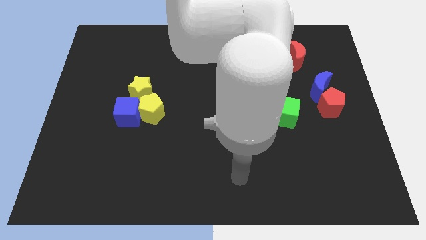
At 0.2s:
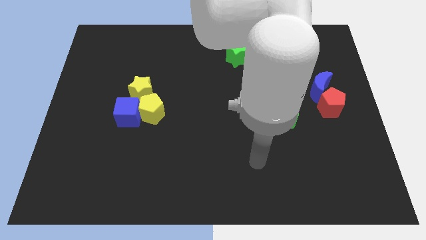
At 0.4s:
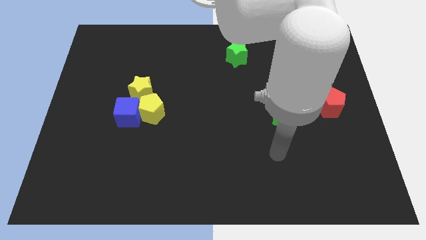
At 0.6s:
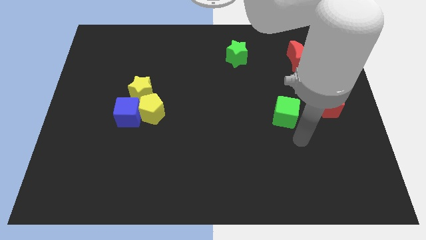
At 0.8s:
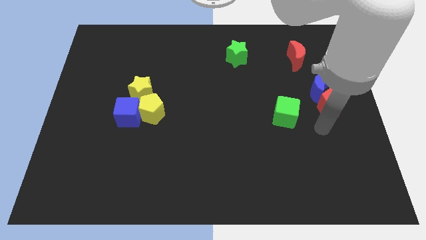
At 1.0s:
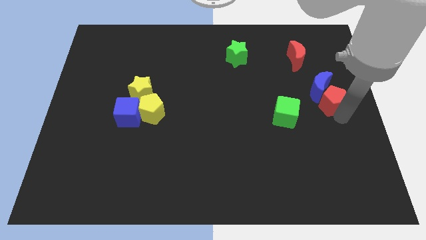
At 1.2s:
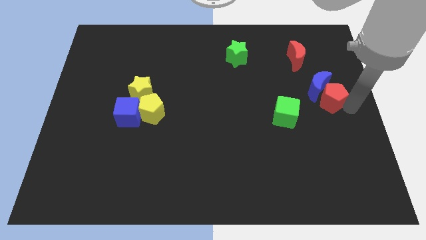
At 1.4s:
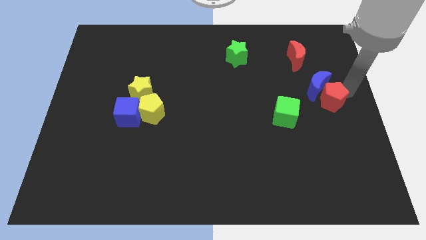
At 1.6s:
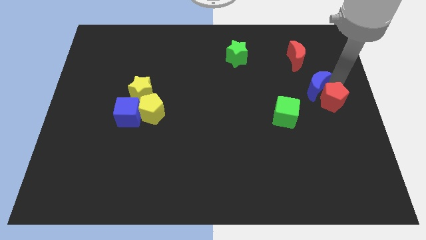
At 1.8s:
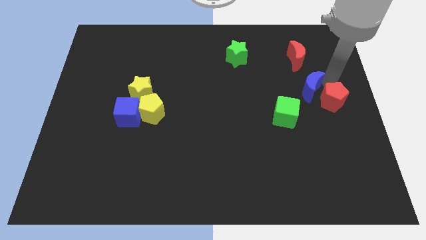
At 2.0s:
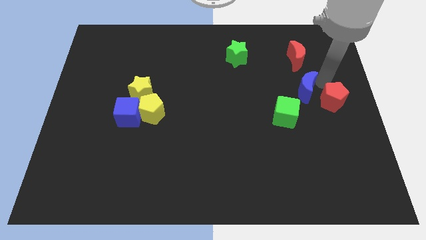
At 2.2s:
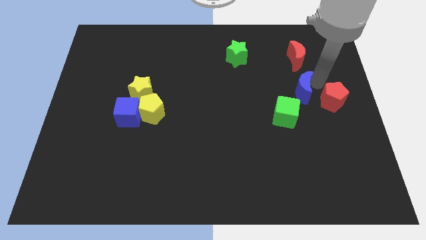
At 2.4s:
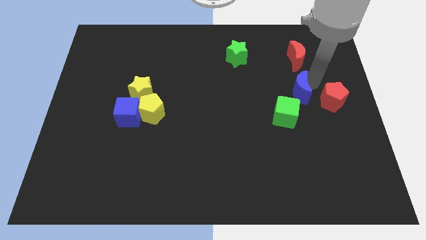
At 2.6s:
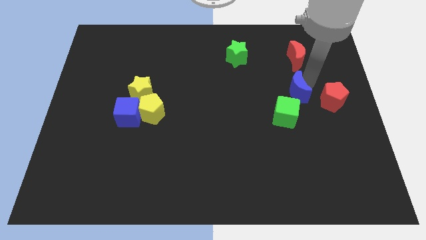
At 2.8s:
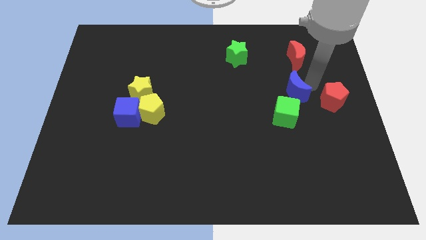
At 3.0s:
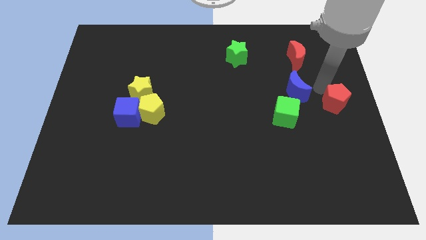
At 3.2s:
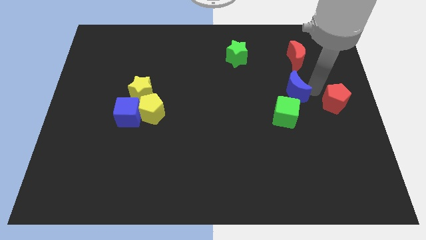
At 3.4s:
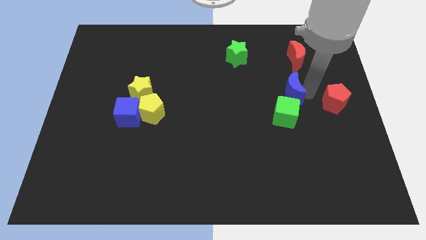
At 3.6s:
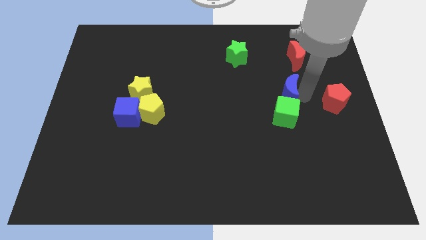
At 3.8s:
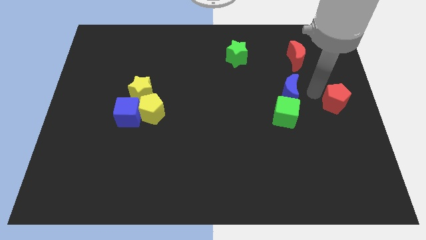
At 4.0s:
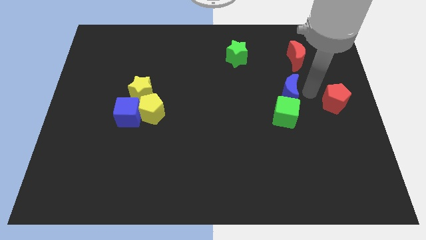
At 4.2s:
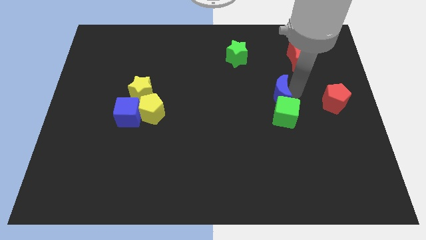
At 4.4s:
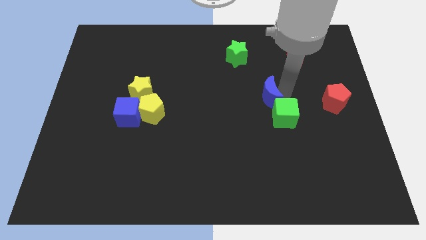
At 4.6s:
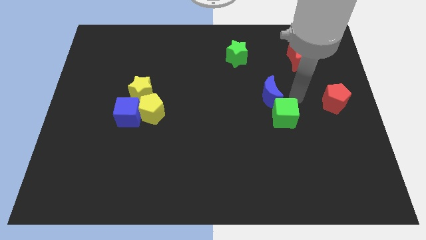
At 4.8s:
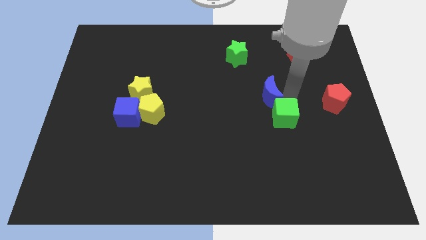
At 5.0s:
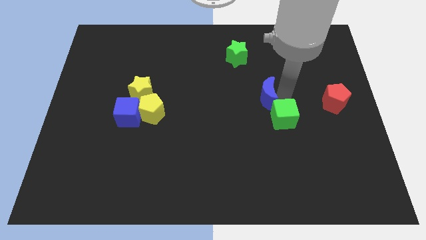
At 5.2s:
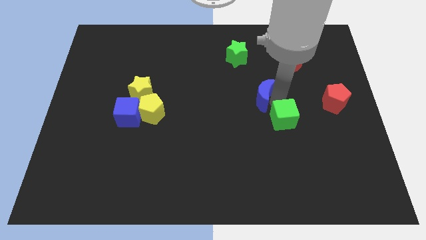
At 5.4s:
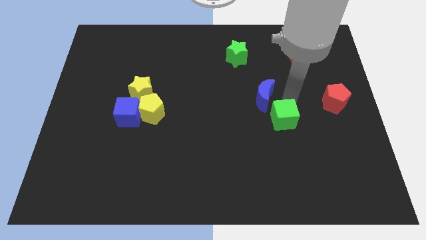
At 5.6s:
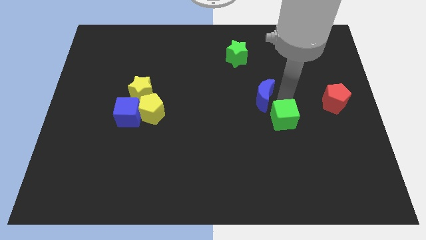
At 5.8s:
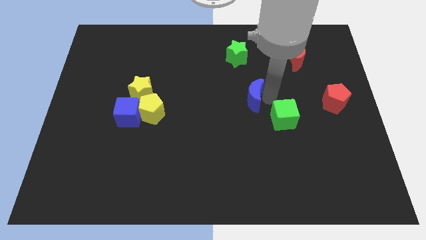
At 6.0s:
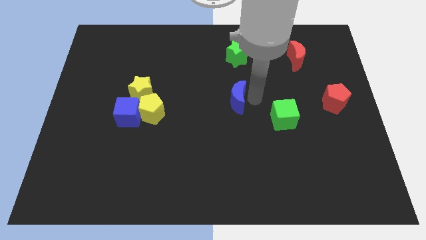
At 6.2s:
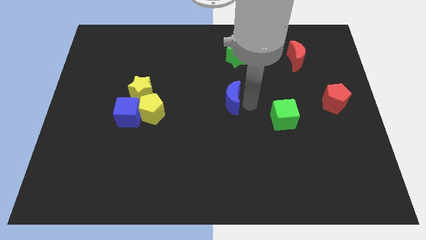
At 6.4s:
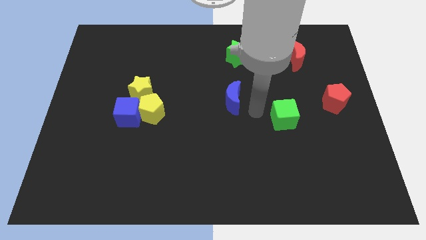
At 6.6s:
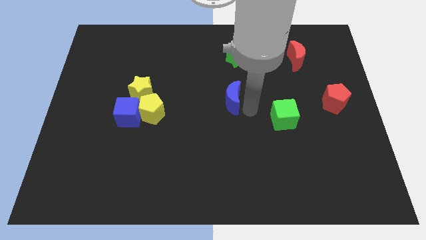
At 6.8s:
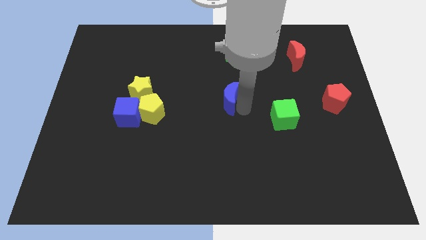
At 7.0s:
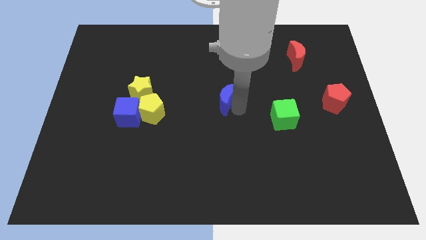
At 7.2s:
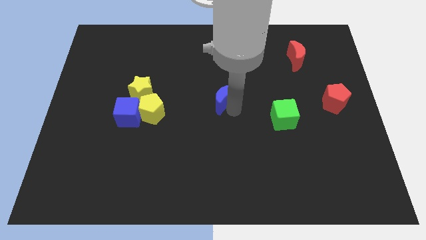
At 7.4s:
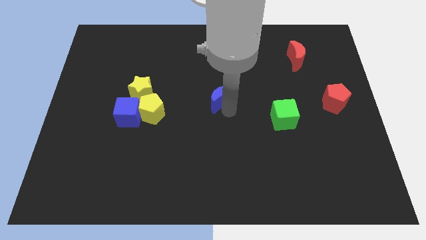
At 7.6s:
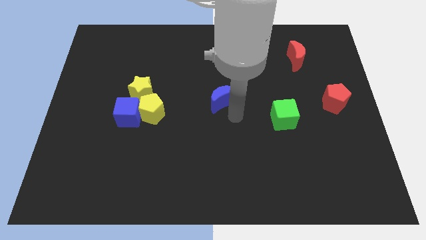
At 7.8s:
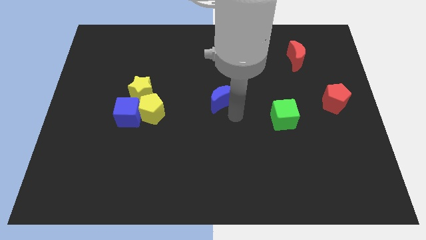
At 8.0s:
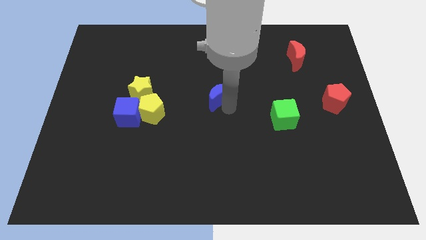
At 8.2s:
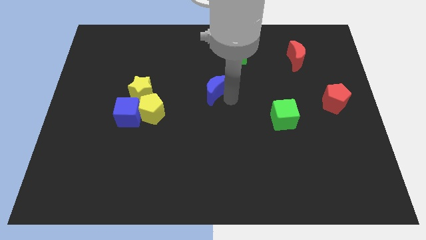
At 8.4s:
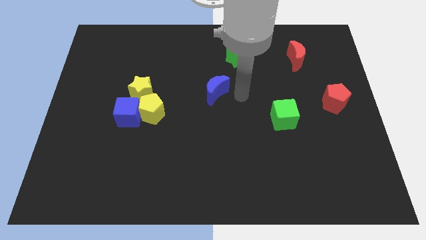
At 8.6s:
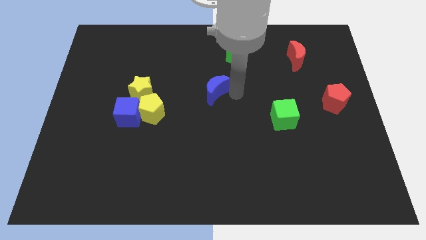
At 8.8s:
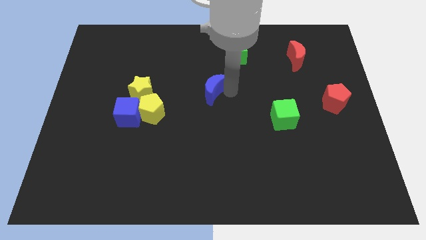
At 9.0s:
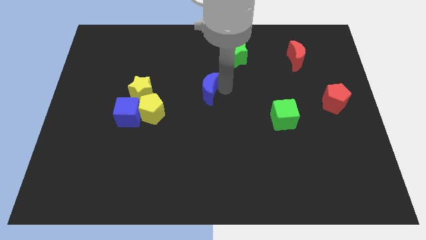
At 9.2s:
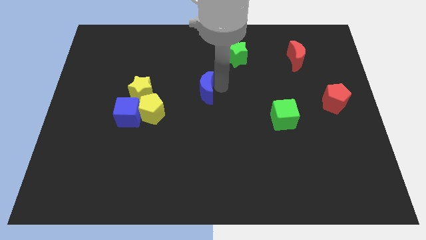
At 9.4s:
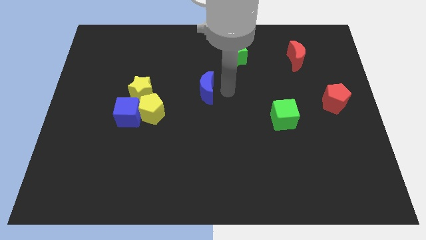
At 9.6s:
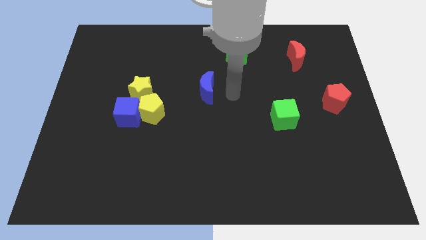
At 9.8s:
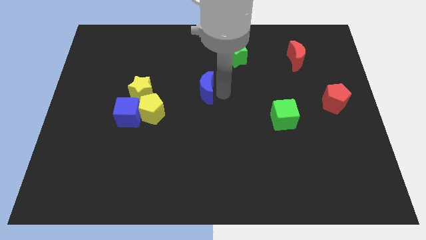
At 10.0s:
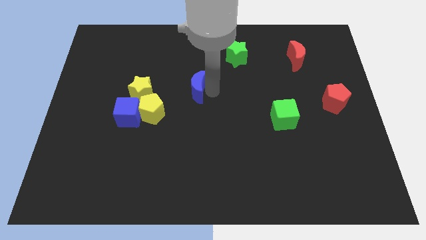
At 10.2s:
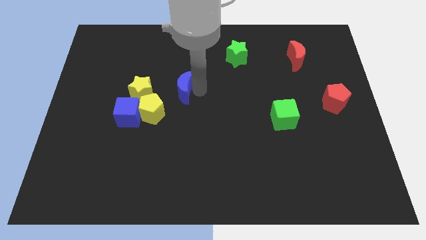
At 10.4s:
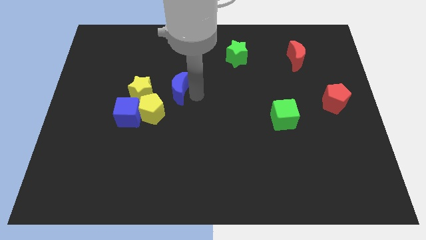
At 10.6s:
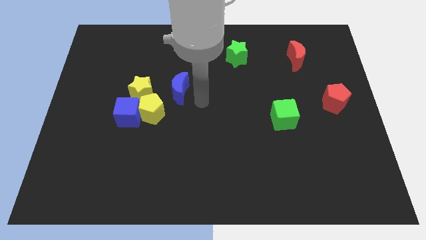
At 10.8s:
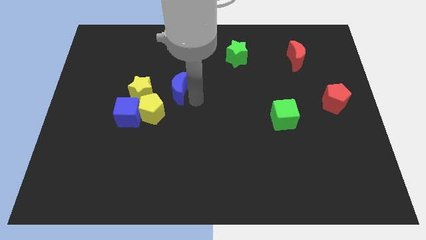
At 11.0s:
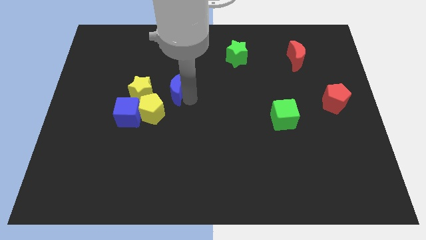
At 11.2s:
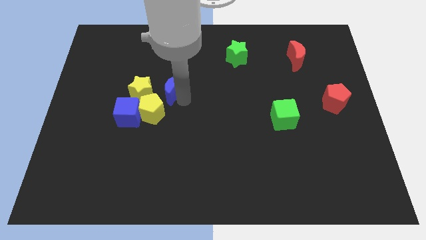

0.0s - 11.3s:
push the blue moon to the top of the yellow pentagon

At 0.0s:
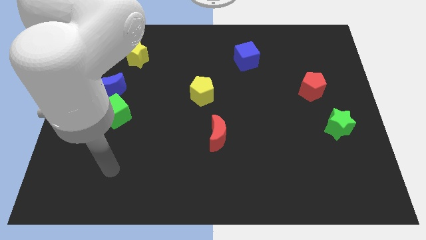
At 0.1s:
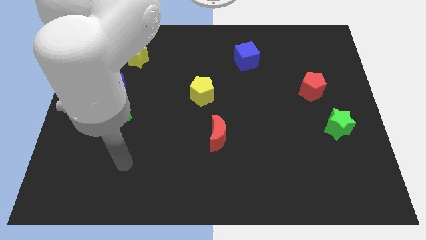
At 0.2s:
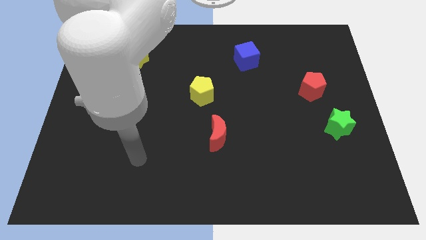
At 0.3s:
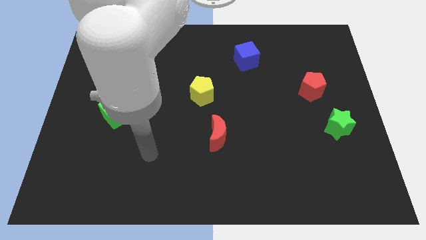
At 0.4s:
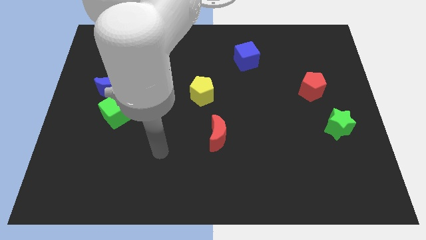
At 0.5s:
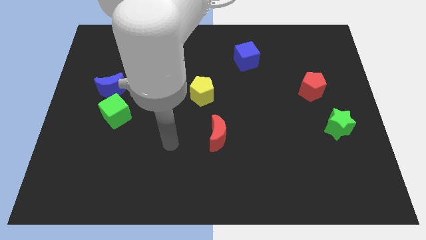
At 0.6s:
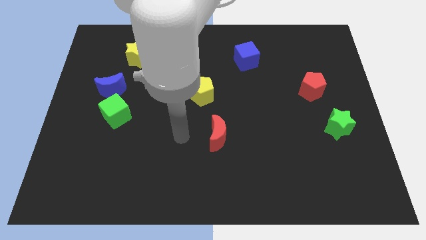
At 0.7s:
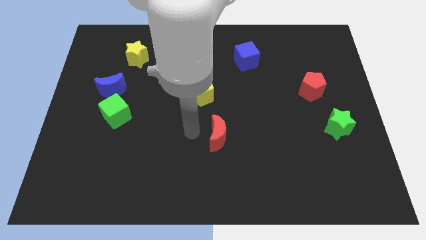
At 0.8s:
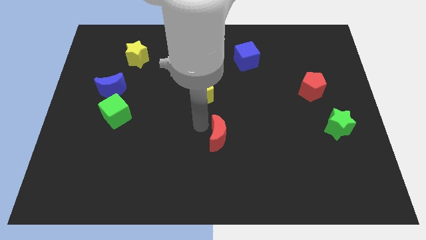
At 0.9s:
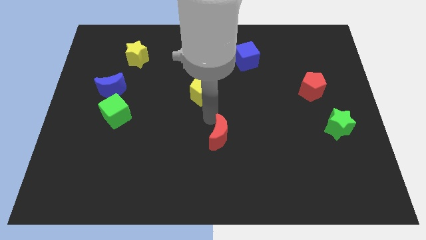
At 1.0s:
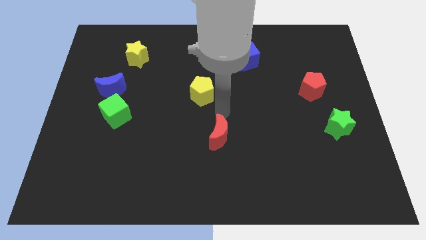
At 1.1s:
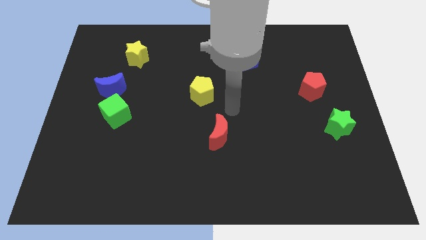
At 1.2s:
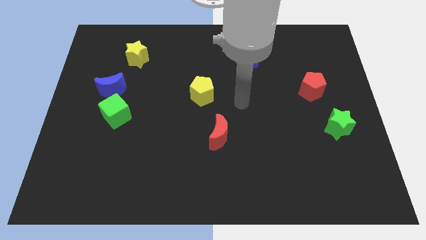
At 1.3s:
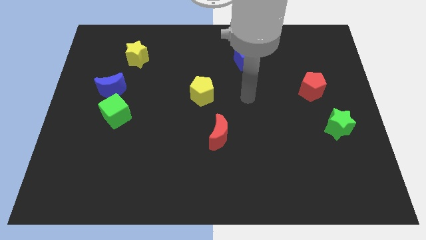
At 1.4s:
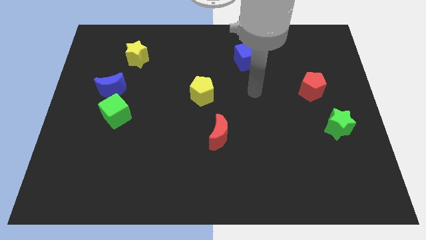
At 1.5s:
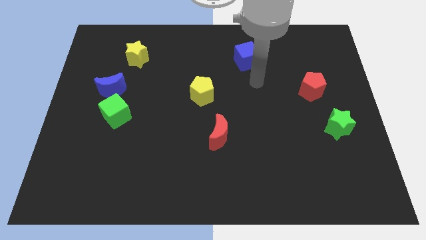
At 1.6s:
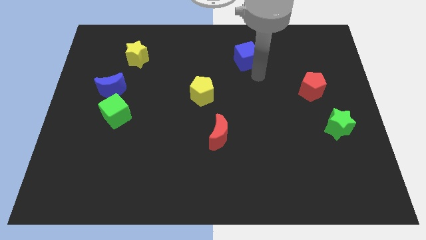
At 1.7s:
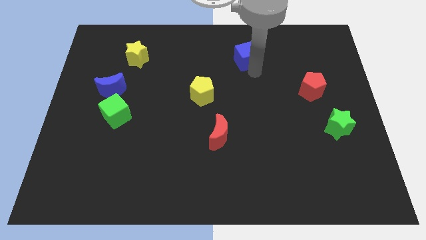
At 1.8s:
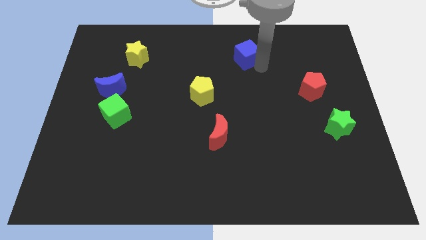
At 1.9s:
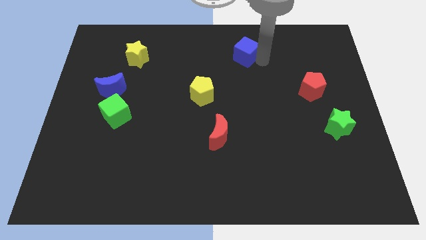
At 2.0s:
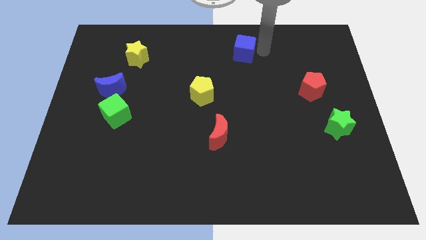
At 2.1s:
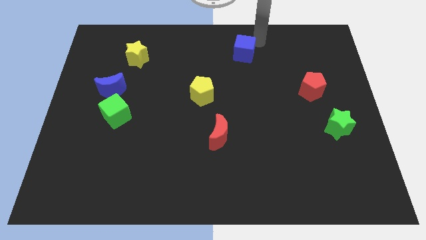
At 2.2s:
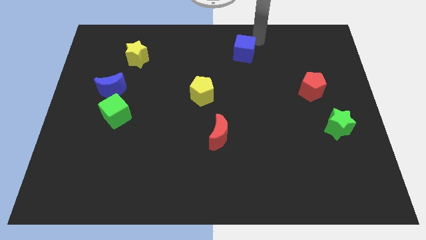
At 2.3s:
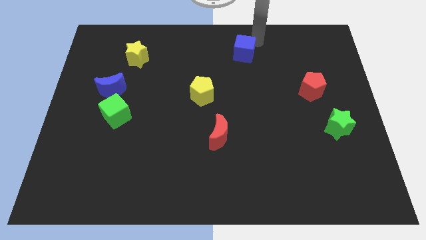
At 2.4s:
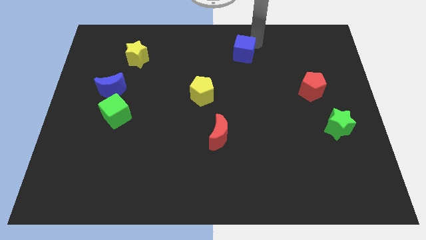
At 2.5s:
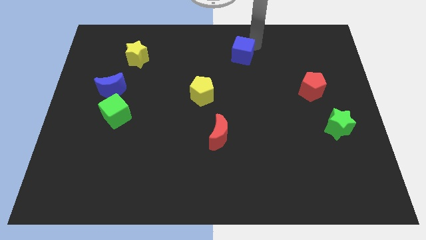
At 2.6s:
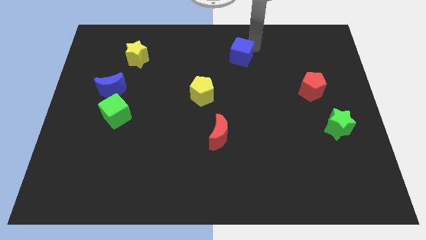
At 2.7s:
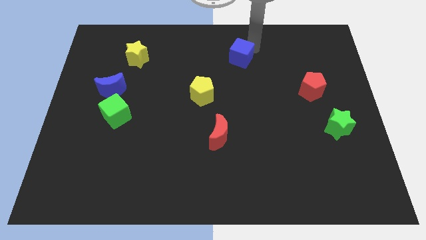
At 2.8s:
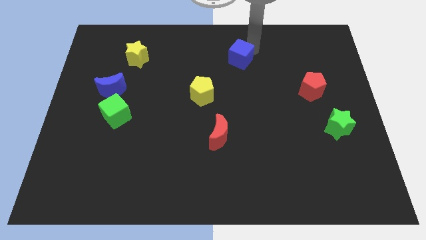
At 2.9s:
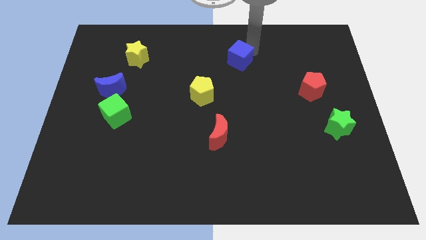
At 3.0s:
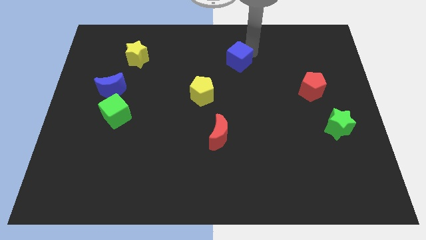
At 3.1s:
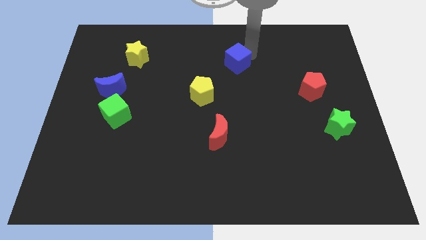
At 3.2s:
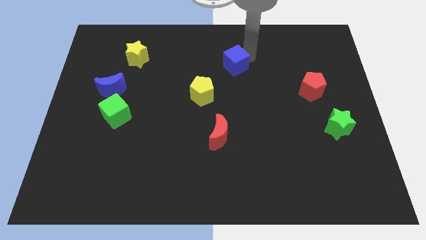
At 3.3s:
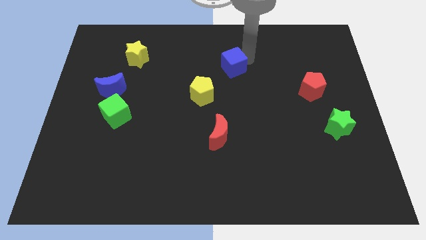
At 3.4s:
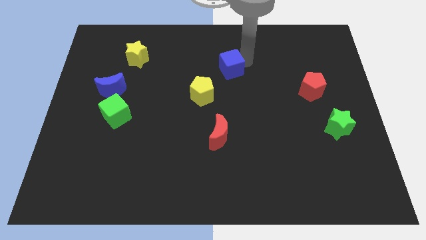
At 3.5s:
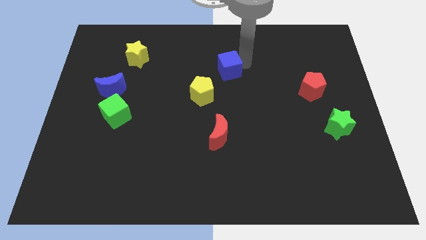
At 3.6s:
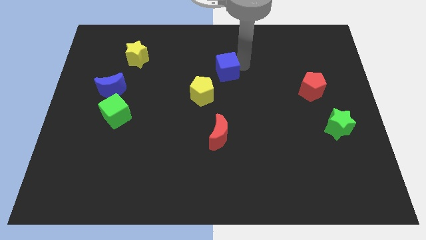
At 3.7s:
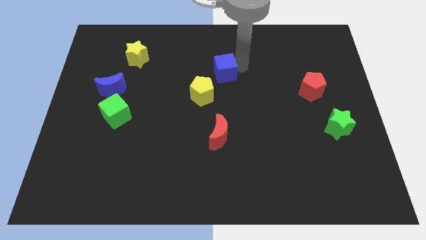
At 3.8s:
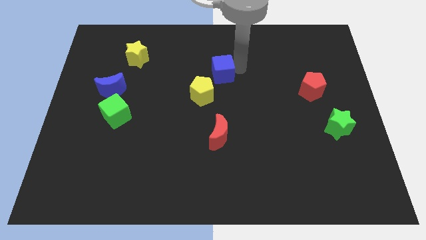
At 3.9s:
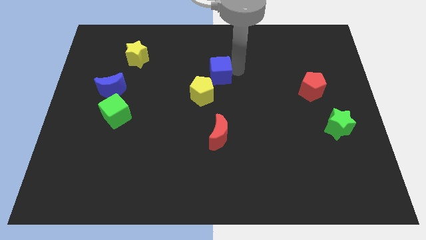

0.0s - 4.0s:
move the blue cube above the yellow pentagon
